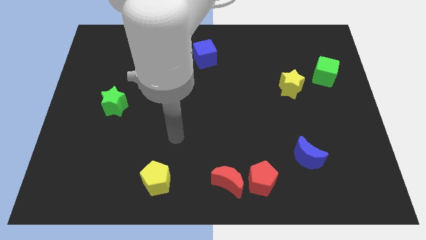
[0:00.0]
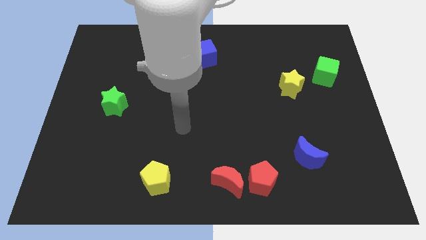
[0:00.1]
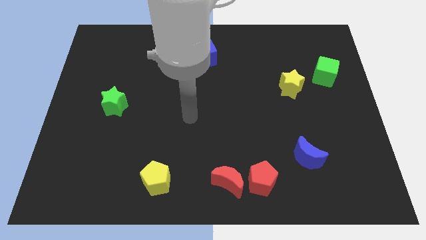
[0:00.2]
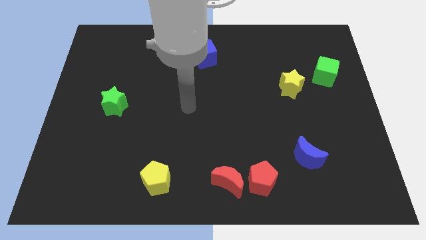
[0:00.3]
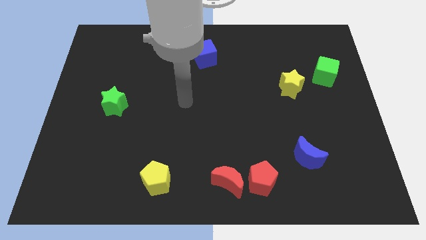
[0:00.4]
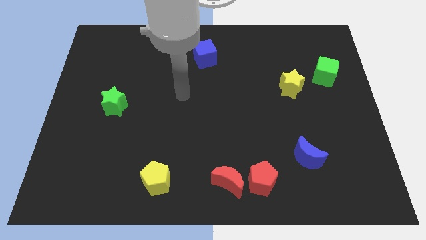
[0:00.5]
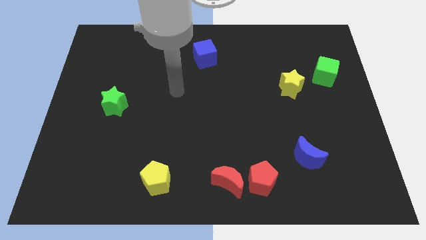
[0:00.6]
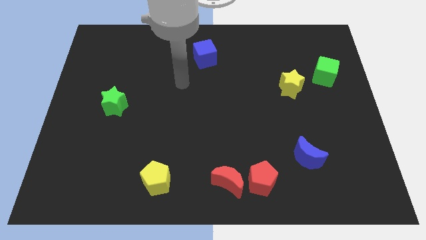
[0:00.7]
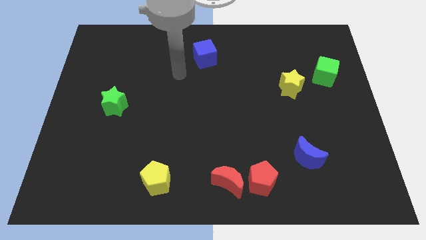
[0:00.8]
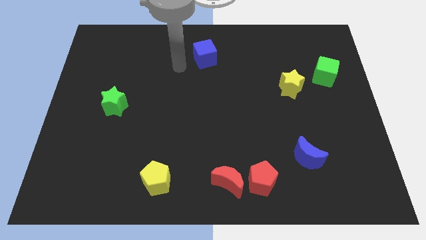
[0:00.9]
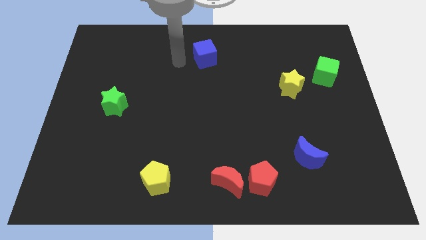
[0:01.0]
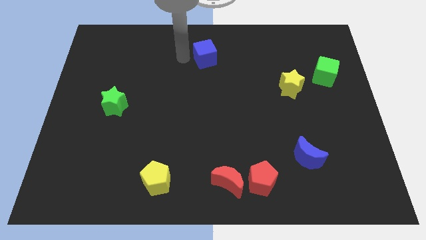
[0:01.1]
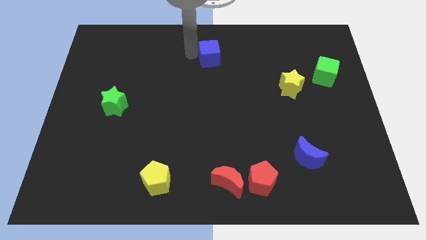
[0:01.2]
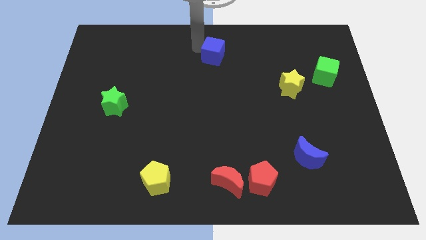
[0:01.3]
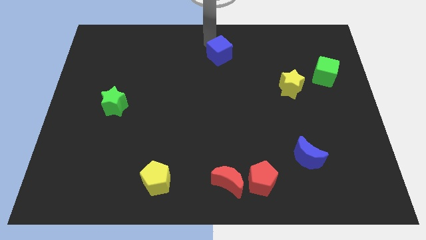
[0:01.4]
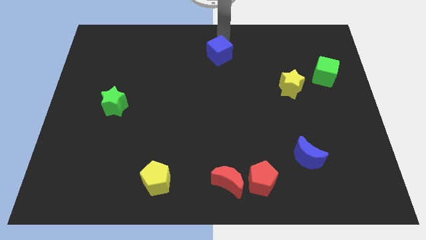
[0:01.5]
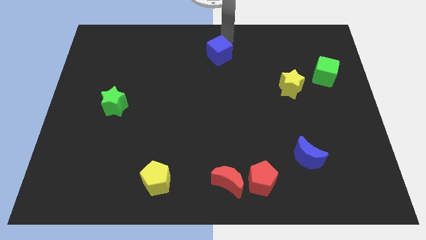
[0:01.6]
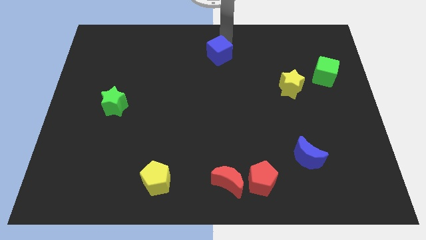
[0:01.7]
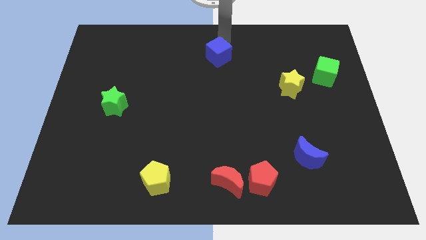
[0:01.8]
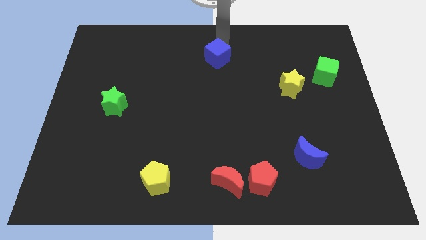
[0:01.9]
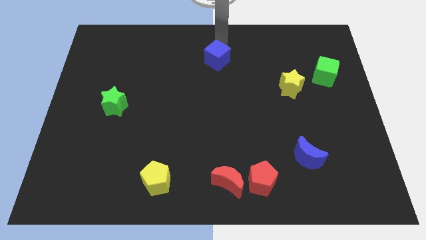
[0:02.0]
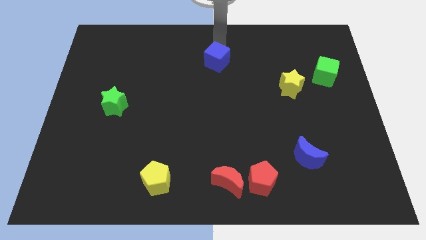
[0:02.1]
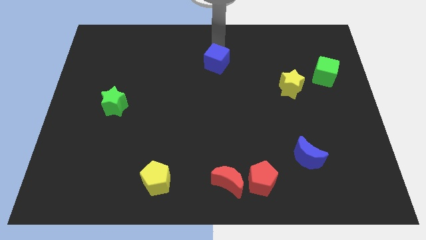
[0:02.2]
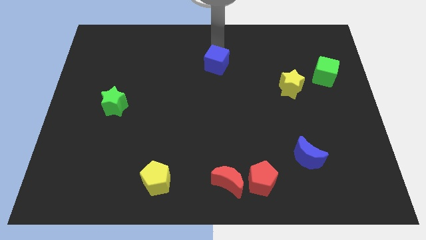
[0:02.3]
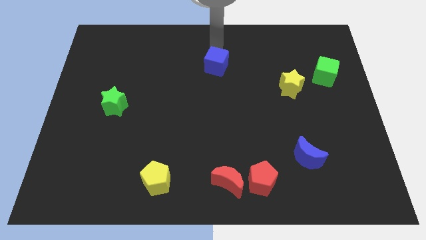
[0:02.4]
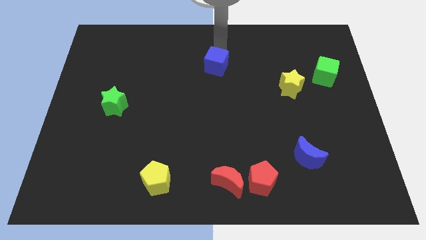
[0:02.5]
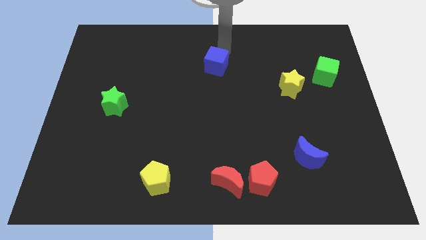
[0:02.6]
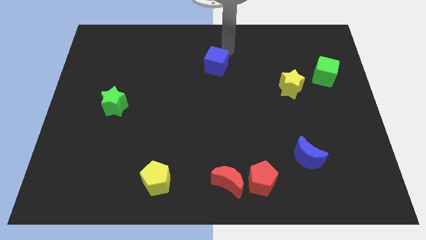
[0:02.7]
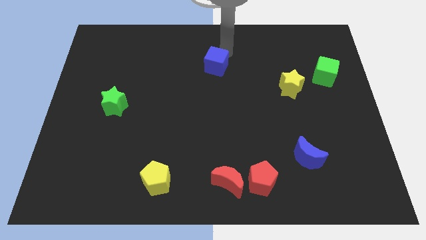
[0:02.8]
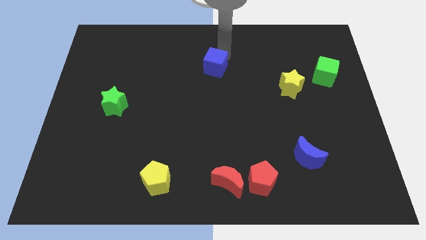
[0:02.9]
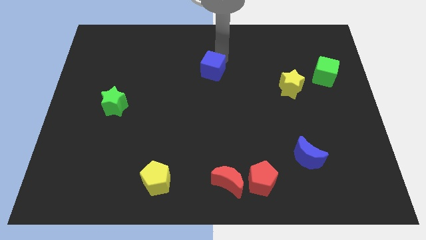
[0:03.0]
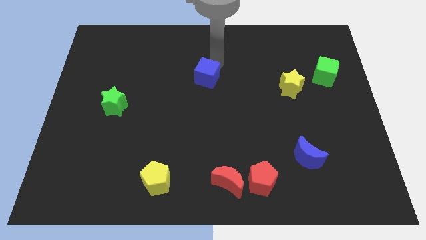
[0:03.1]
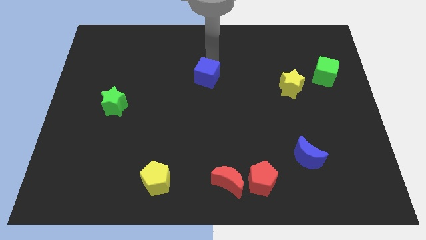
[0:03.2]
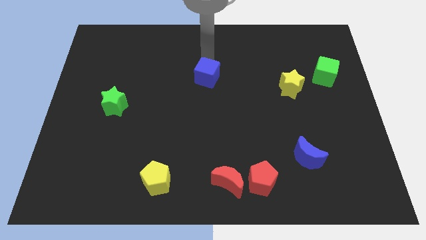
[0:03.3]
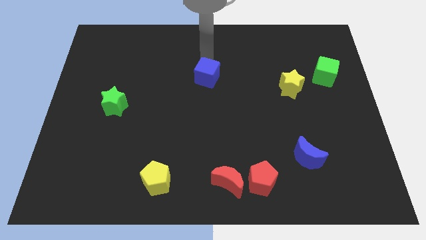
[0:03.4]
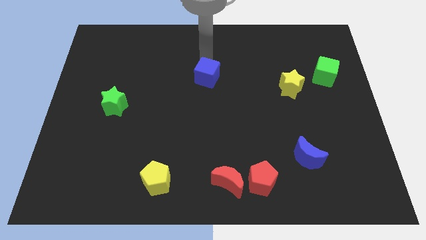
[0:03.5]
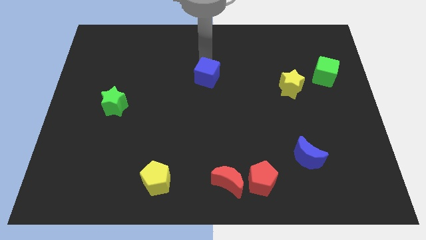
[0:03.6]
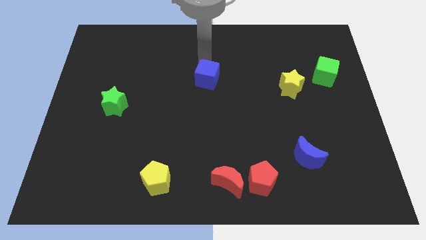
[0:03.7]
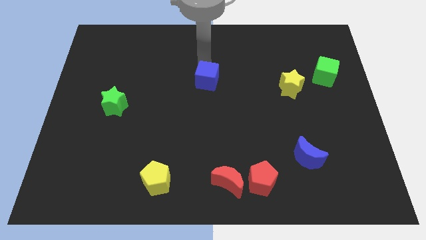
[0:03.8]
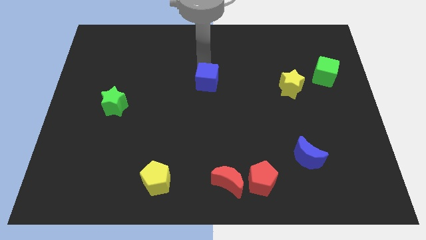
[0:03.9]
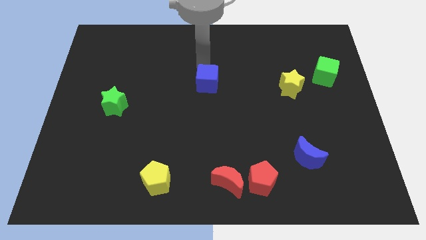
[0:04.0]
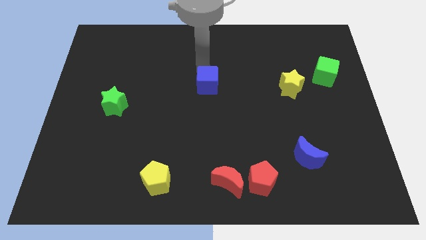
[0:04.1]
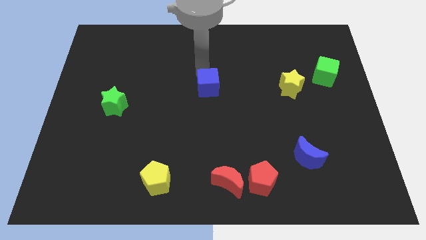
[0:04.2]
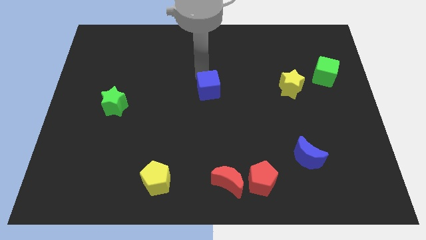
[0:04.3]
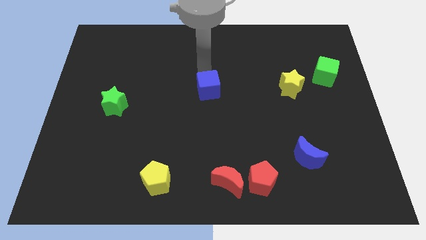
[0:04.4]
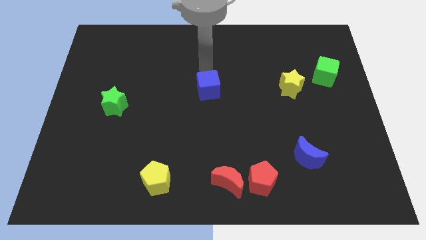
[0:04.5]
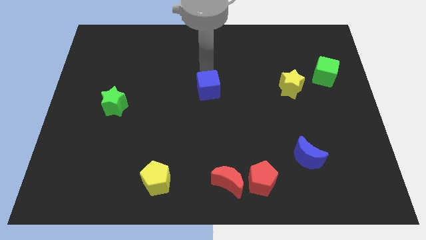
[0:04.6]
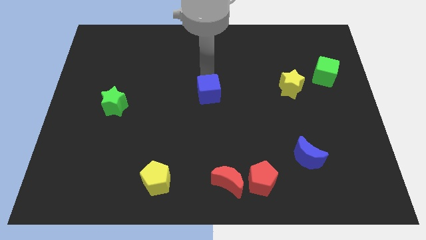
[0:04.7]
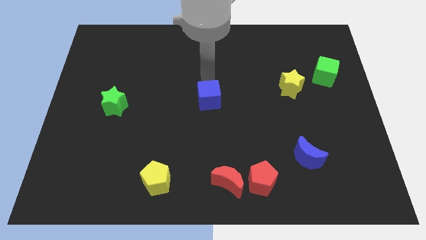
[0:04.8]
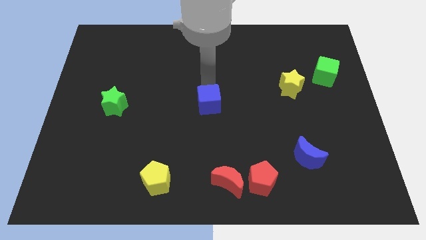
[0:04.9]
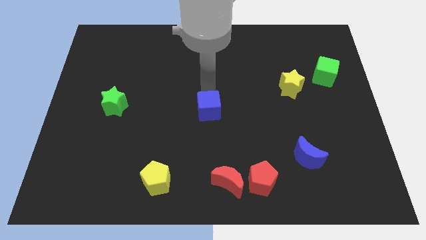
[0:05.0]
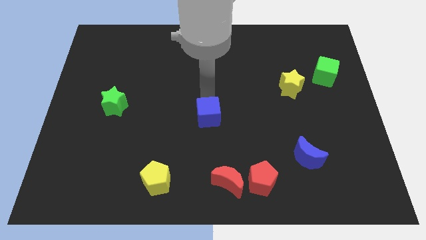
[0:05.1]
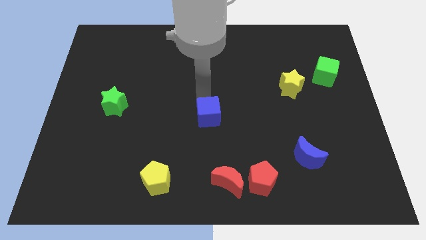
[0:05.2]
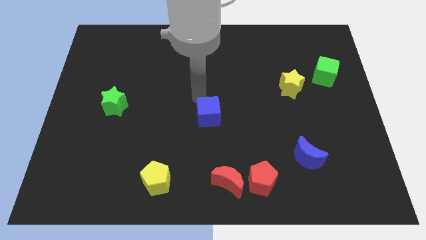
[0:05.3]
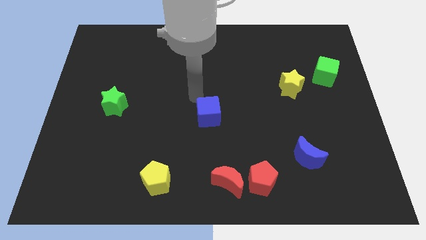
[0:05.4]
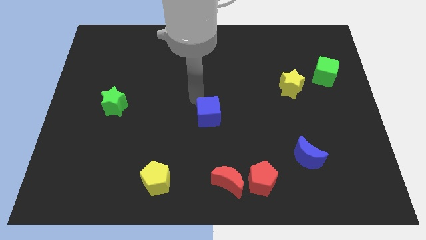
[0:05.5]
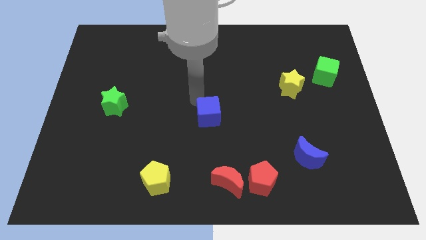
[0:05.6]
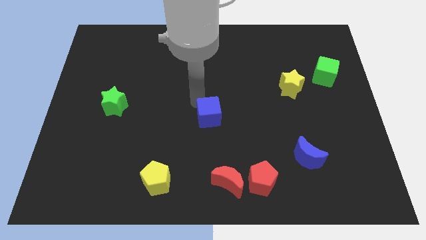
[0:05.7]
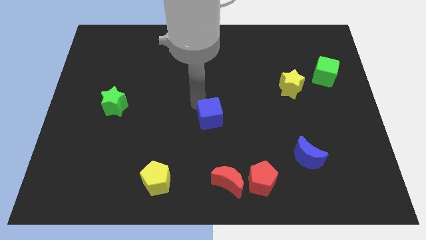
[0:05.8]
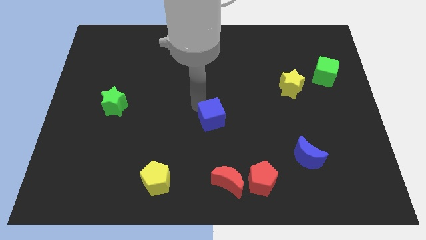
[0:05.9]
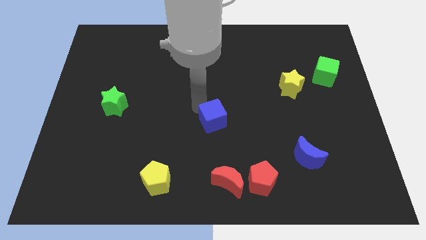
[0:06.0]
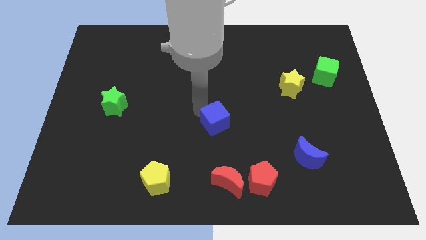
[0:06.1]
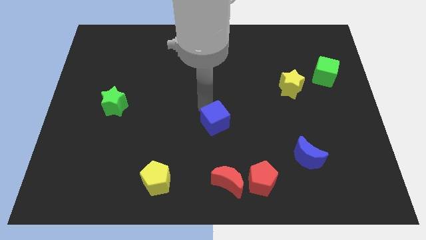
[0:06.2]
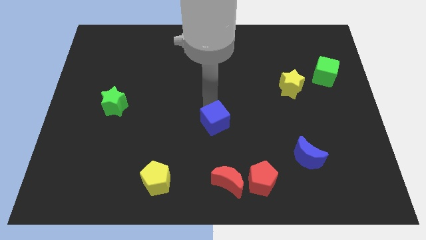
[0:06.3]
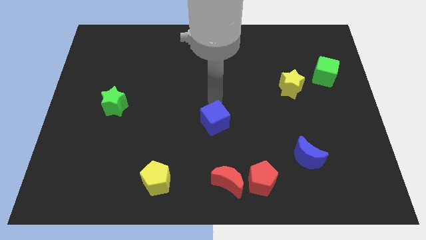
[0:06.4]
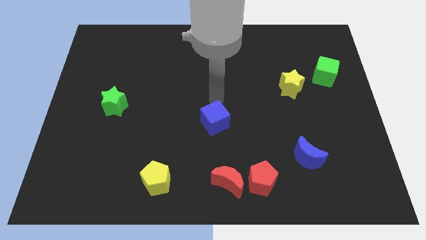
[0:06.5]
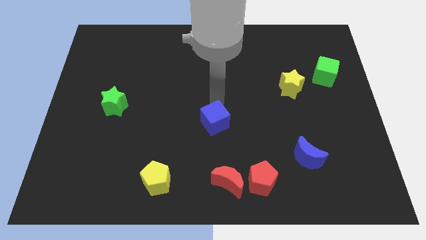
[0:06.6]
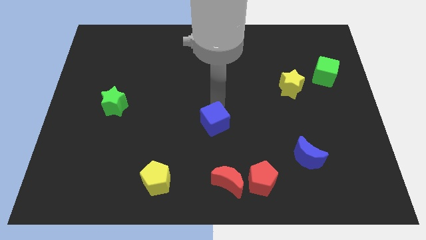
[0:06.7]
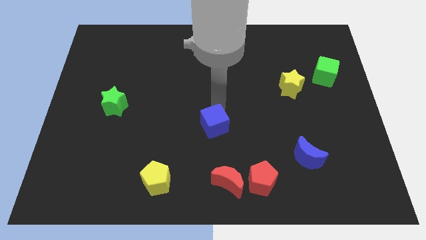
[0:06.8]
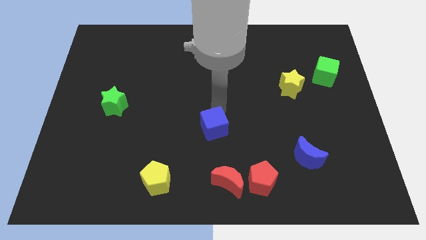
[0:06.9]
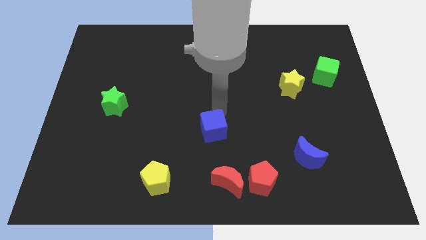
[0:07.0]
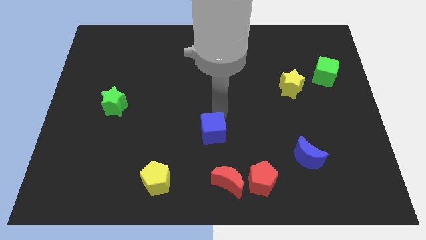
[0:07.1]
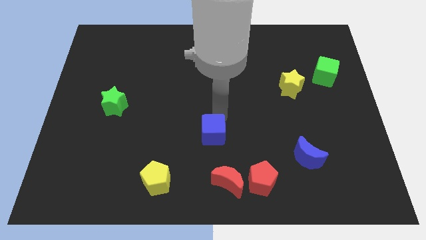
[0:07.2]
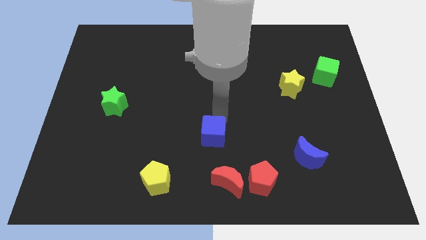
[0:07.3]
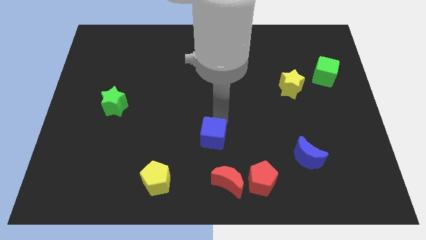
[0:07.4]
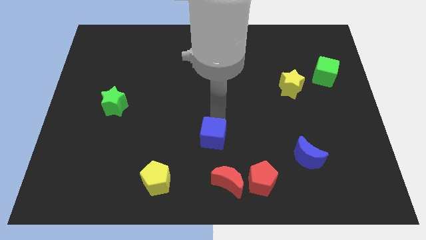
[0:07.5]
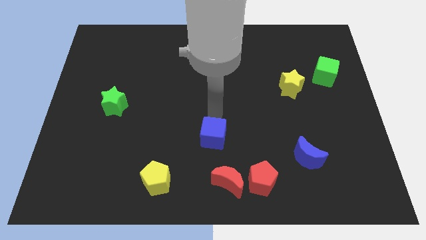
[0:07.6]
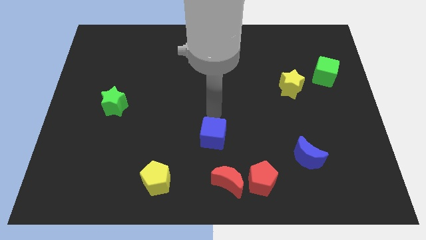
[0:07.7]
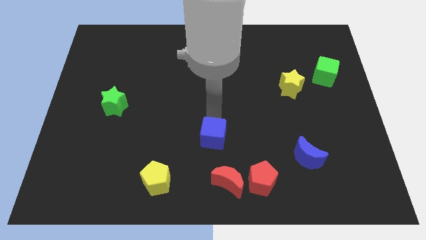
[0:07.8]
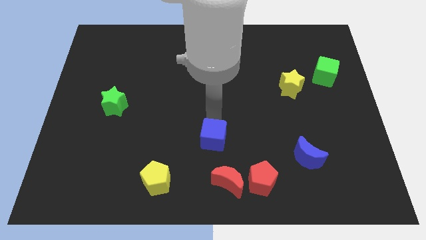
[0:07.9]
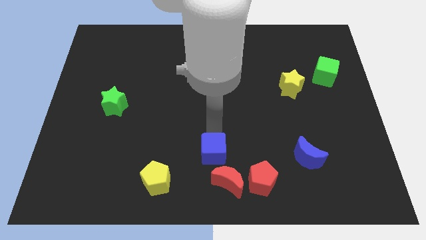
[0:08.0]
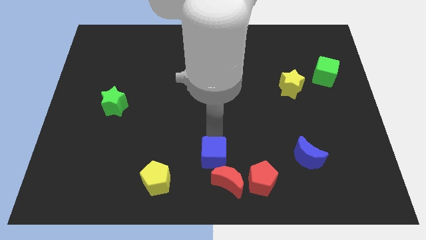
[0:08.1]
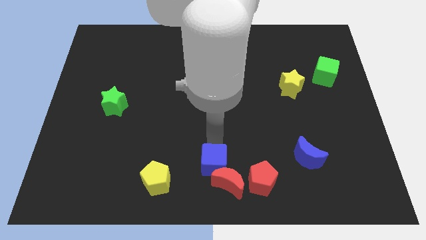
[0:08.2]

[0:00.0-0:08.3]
move the blue cube right of the yellow pentagon
